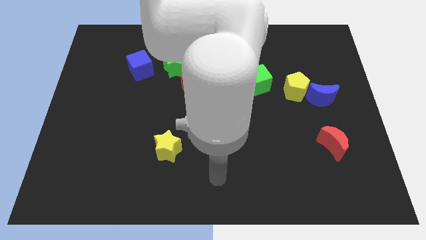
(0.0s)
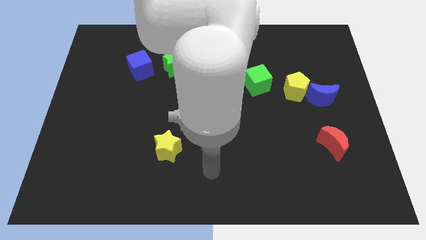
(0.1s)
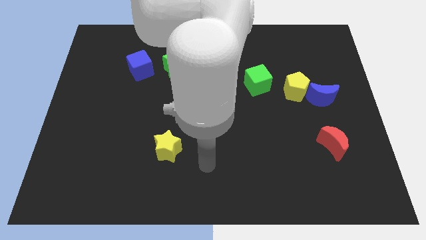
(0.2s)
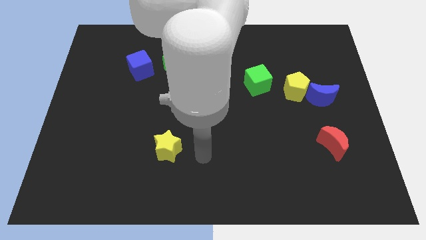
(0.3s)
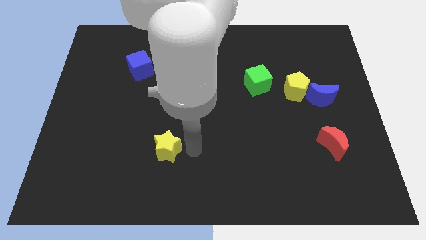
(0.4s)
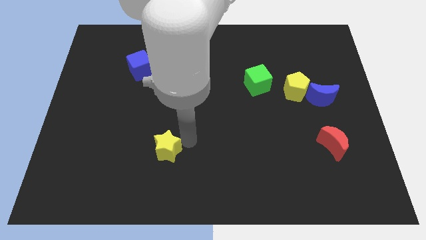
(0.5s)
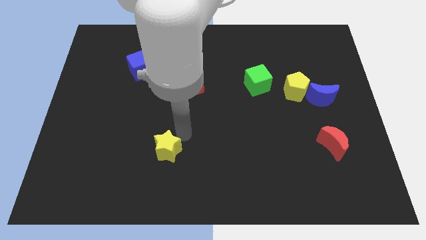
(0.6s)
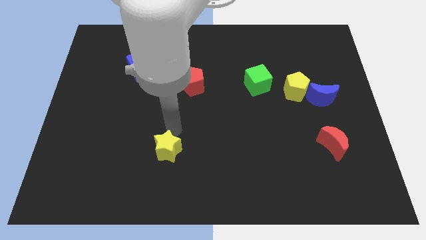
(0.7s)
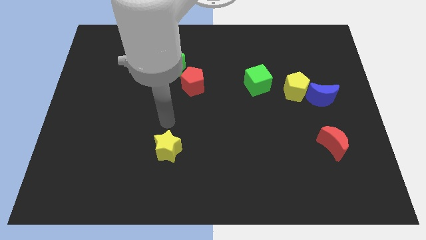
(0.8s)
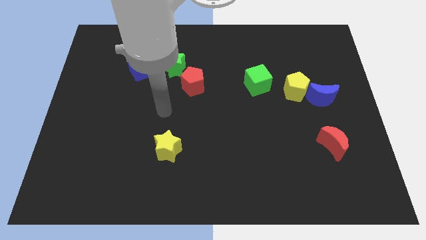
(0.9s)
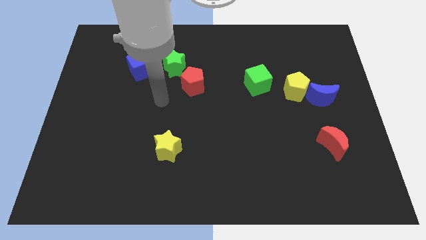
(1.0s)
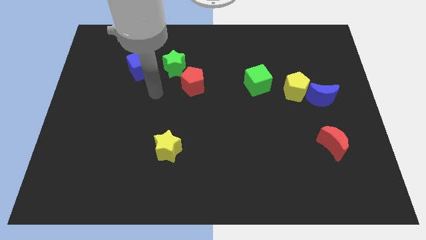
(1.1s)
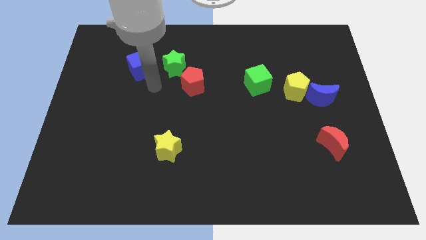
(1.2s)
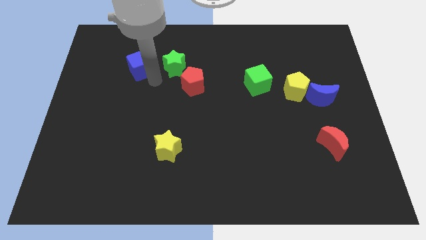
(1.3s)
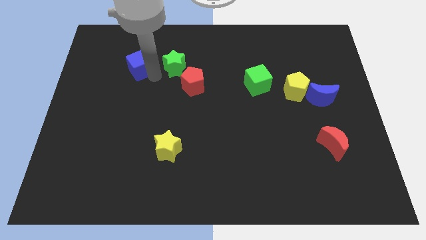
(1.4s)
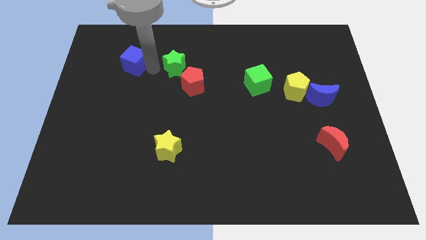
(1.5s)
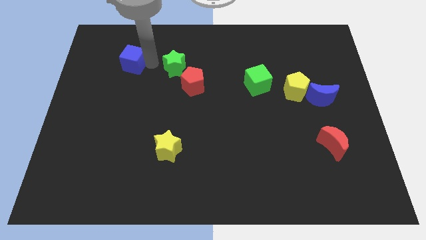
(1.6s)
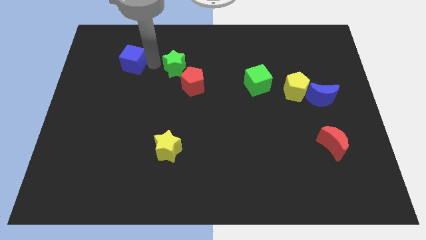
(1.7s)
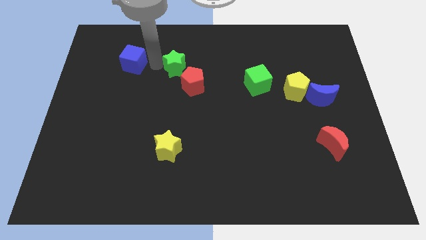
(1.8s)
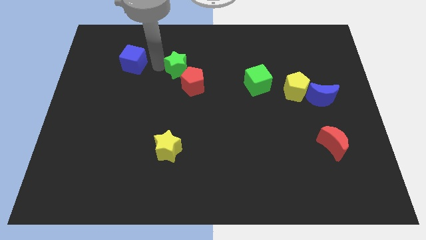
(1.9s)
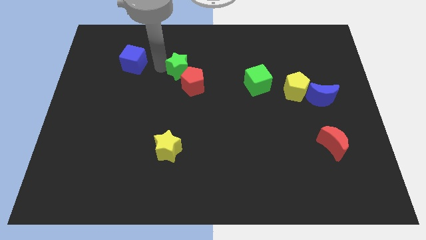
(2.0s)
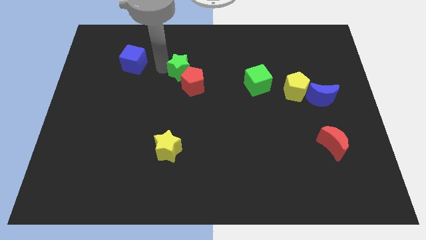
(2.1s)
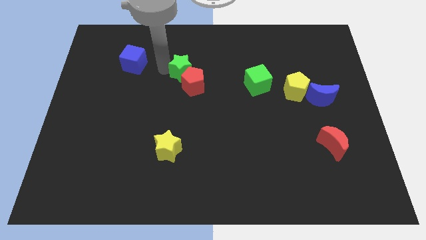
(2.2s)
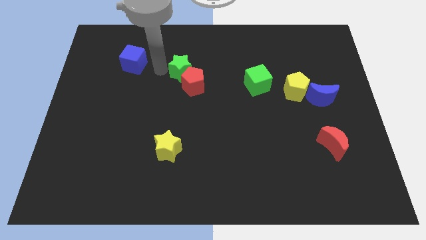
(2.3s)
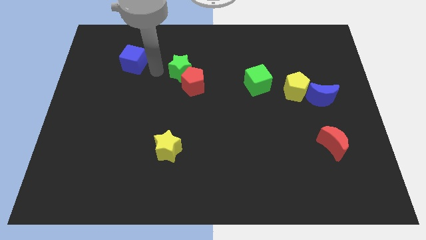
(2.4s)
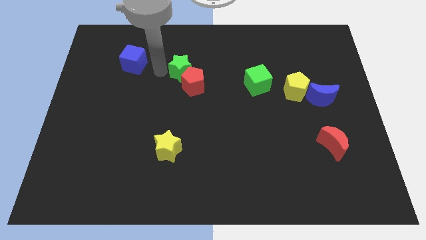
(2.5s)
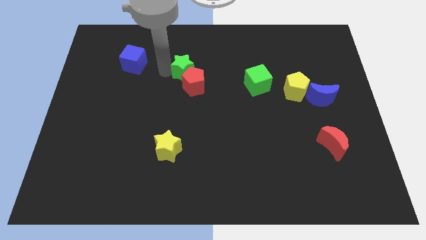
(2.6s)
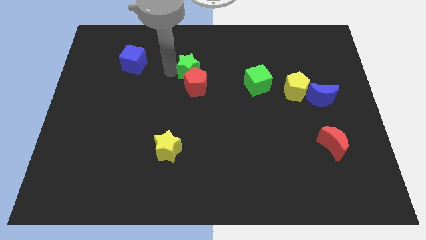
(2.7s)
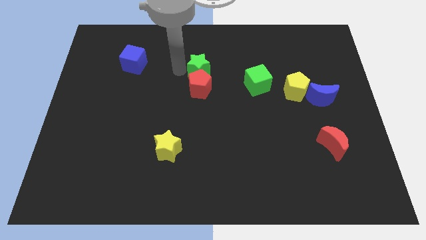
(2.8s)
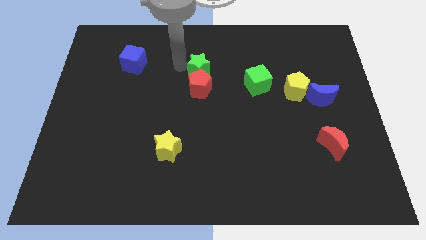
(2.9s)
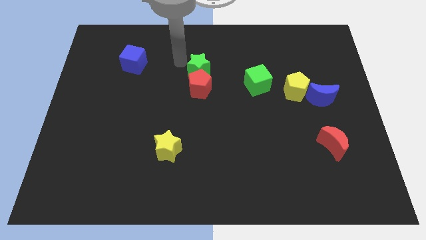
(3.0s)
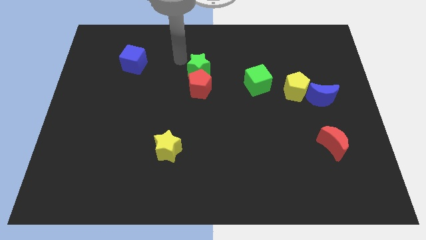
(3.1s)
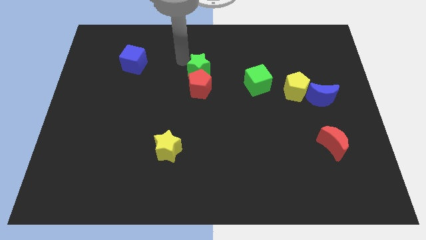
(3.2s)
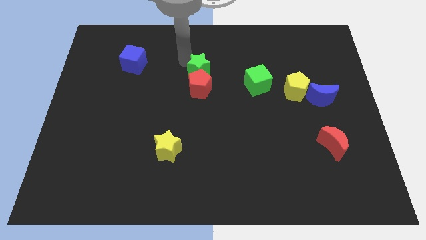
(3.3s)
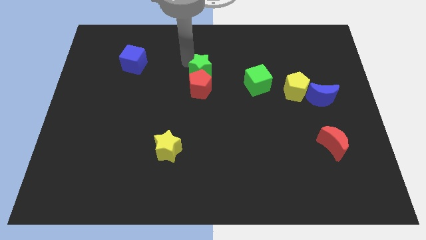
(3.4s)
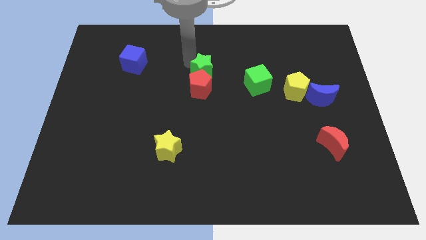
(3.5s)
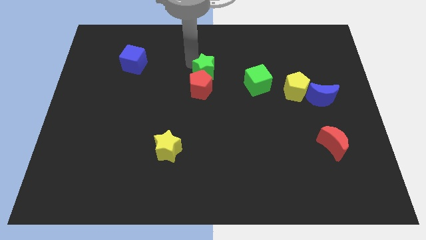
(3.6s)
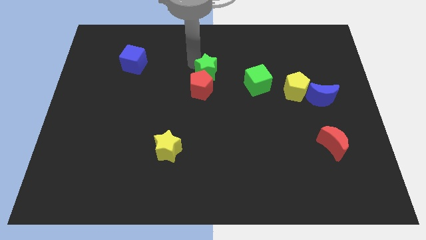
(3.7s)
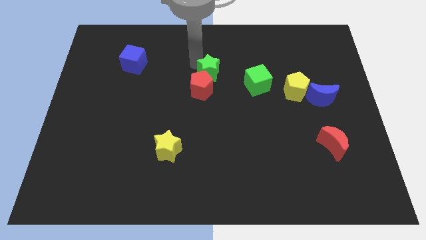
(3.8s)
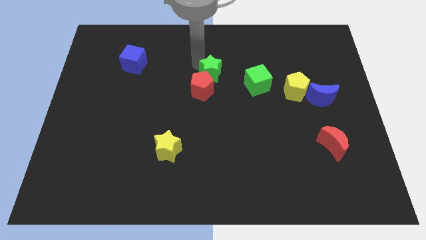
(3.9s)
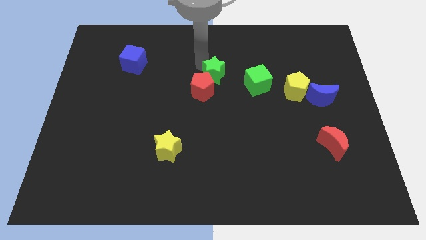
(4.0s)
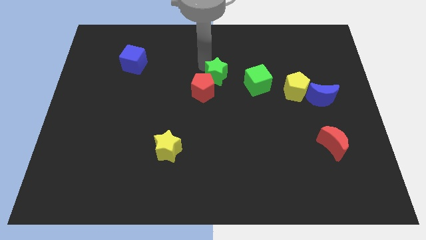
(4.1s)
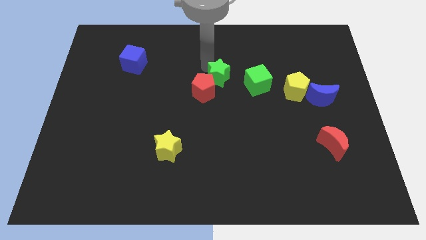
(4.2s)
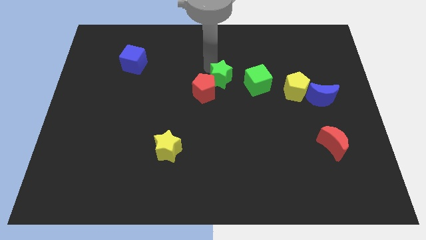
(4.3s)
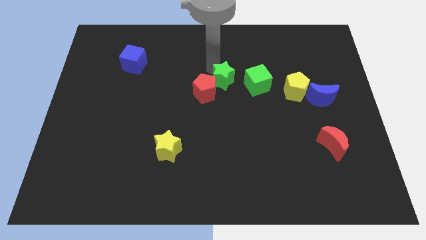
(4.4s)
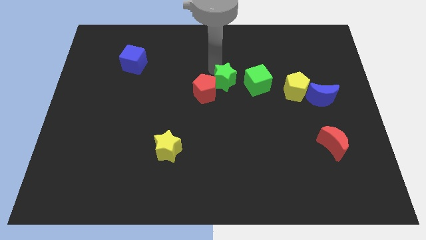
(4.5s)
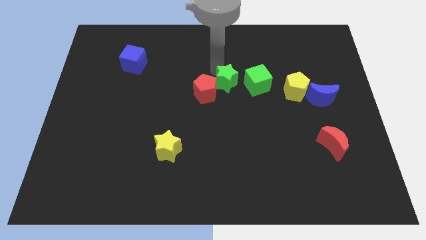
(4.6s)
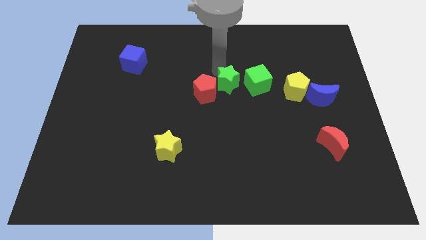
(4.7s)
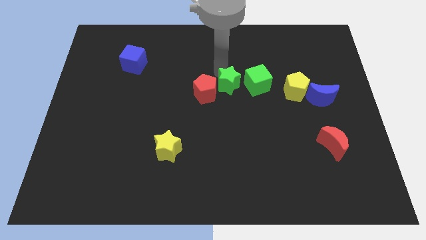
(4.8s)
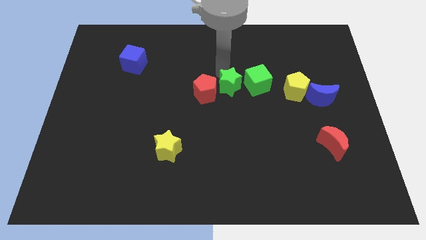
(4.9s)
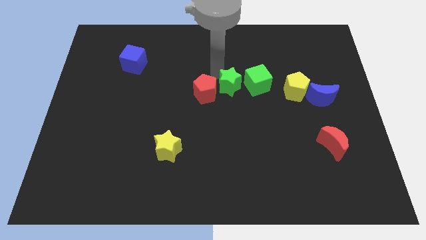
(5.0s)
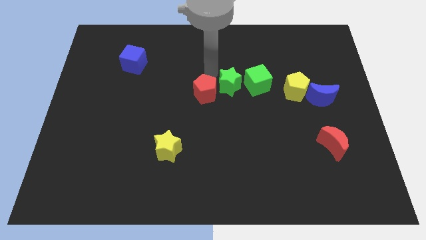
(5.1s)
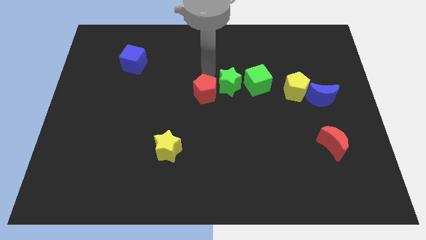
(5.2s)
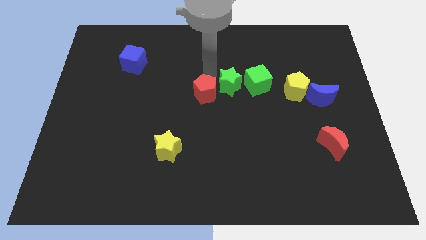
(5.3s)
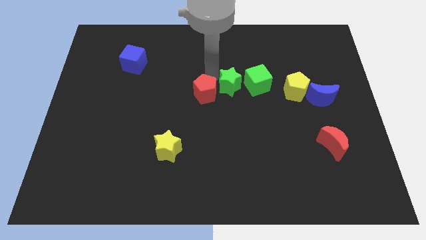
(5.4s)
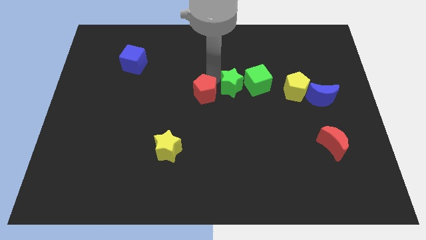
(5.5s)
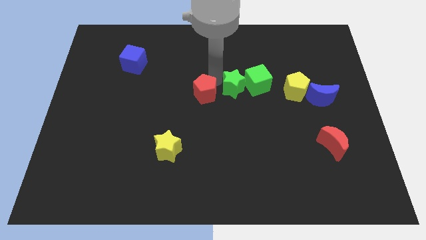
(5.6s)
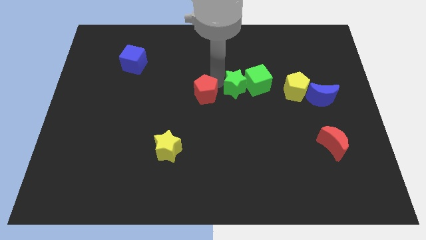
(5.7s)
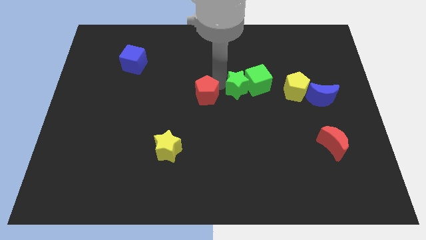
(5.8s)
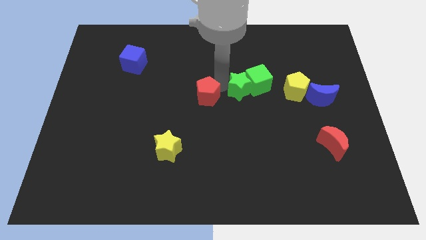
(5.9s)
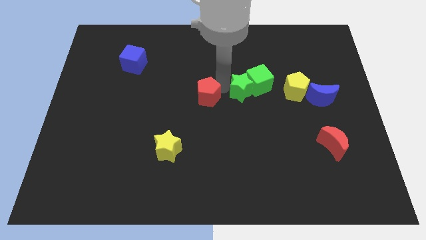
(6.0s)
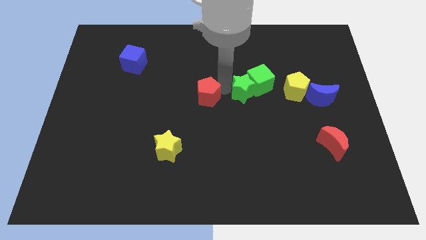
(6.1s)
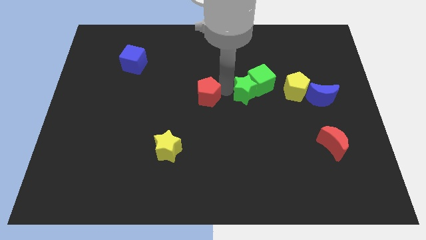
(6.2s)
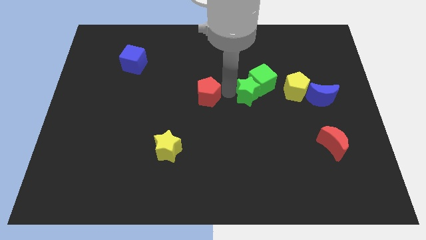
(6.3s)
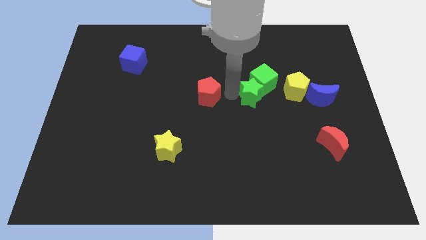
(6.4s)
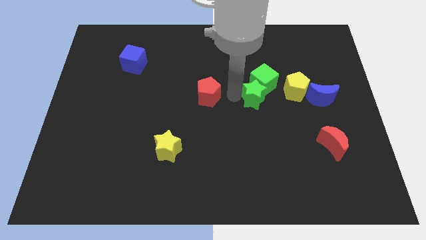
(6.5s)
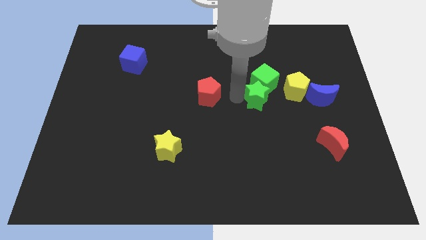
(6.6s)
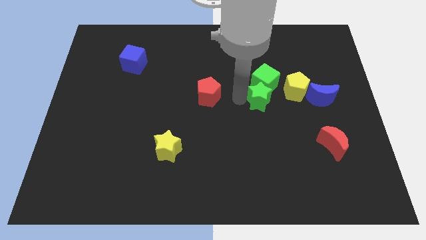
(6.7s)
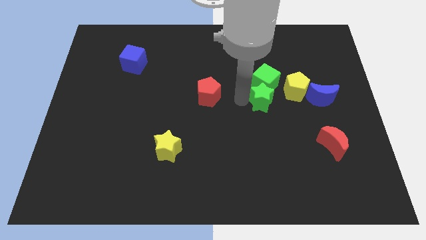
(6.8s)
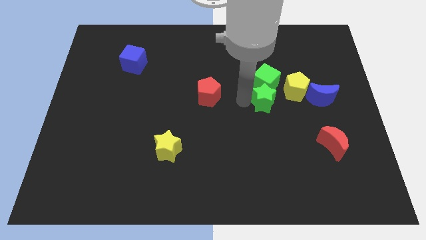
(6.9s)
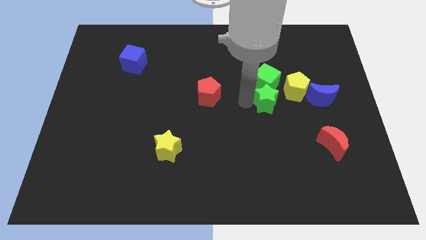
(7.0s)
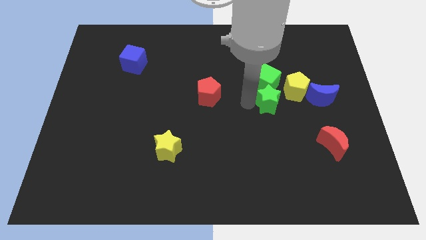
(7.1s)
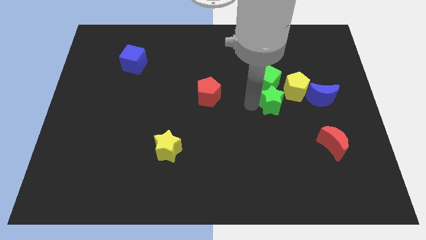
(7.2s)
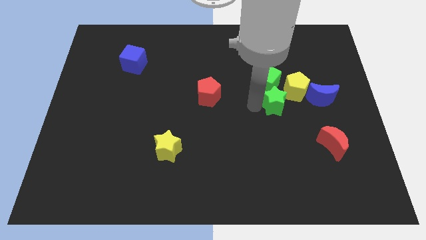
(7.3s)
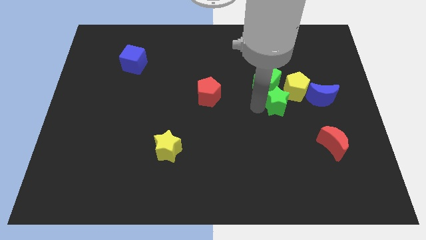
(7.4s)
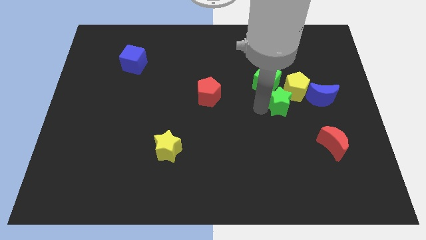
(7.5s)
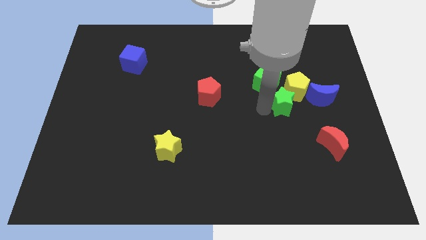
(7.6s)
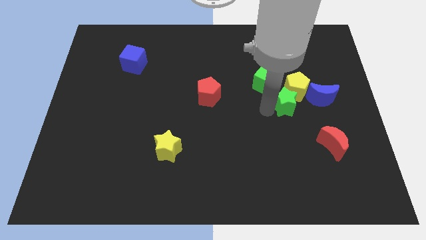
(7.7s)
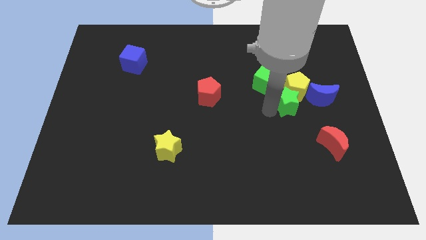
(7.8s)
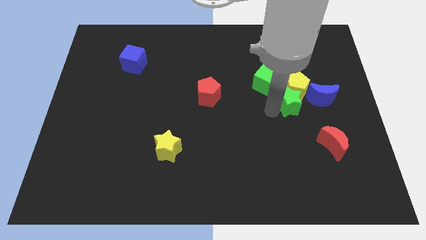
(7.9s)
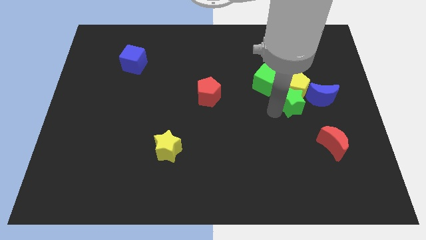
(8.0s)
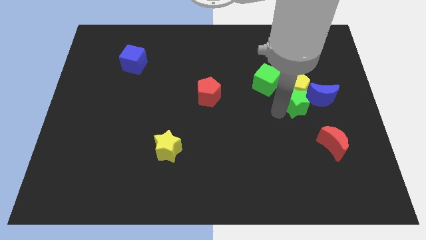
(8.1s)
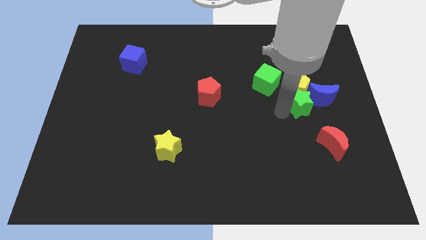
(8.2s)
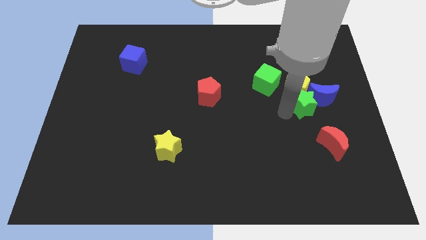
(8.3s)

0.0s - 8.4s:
put the green star next to the blue moon
